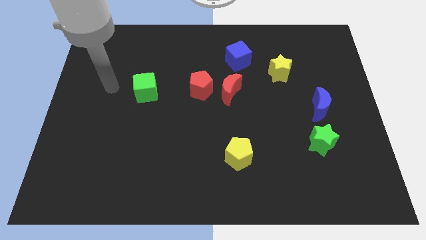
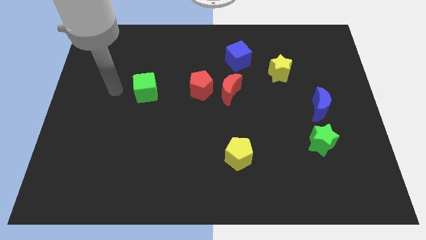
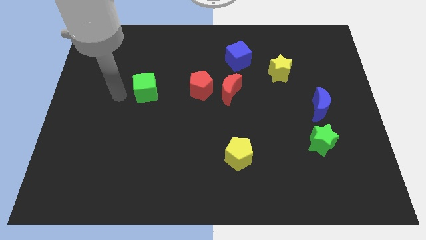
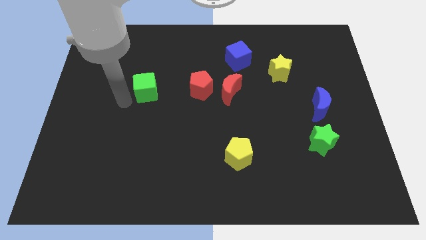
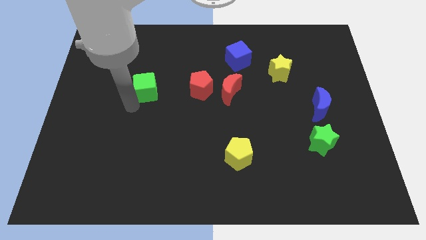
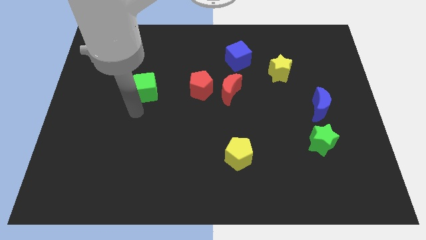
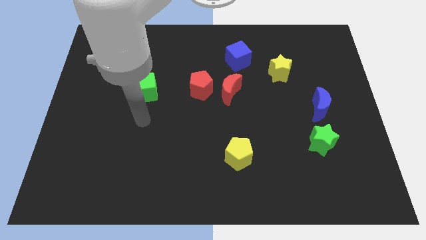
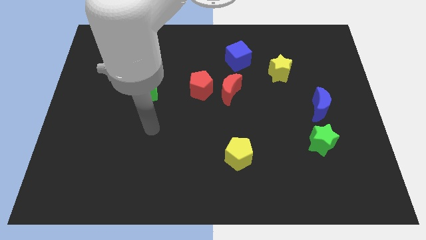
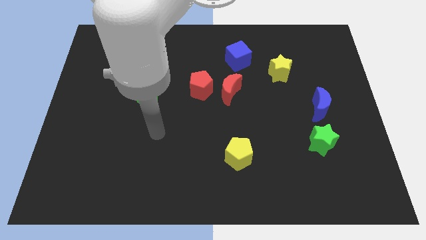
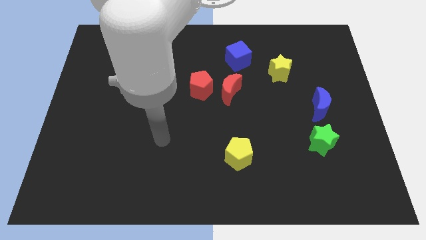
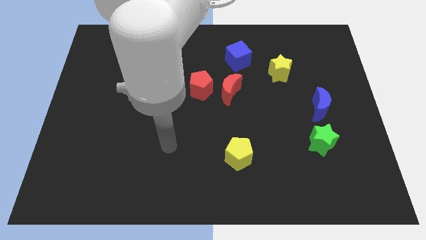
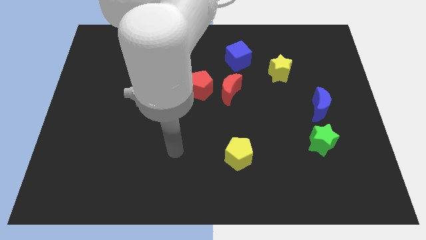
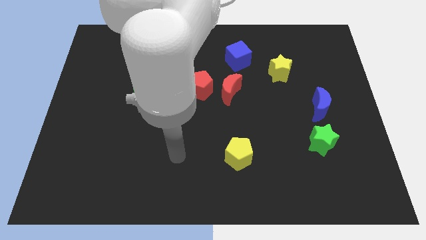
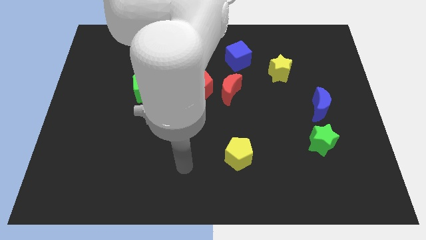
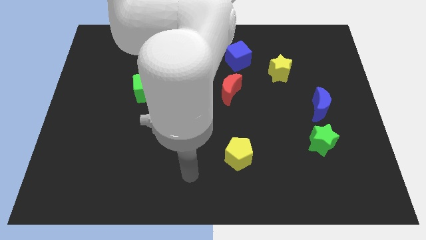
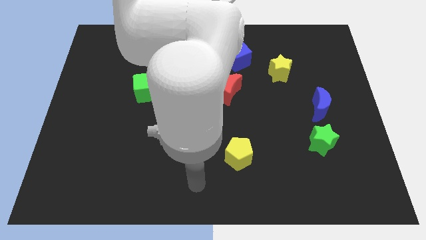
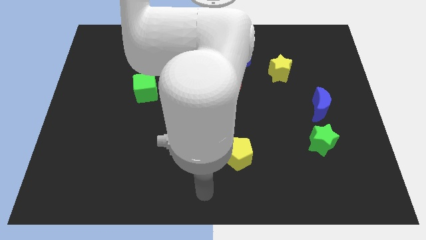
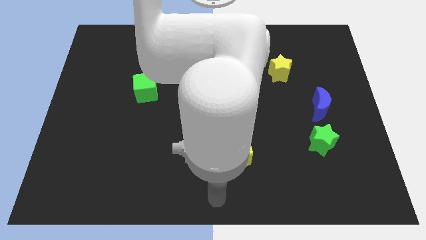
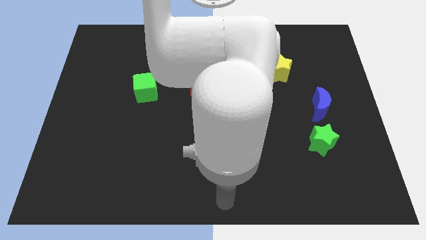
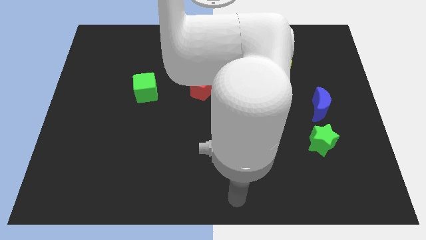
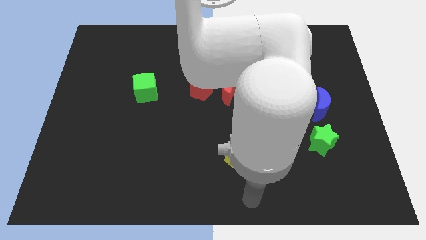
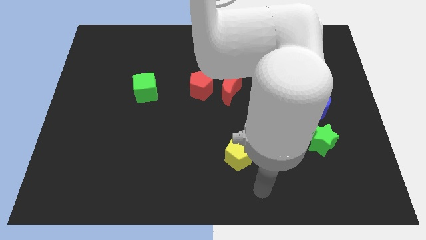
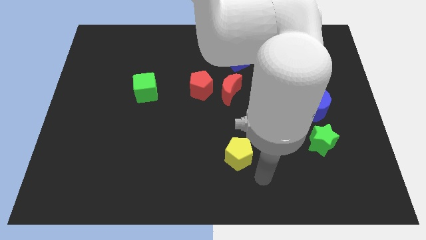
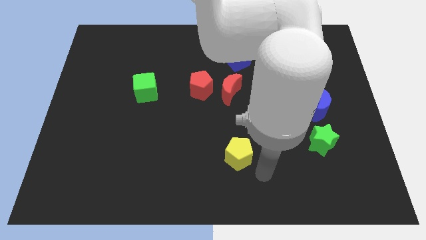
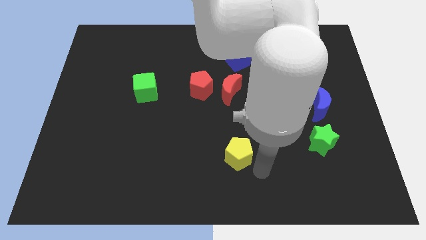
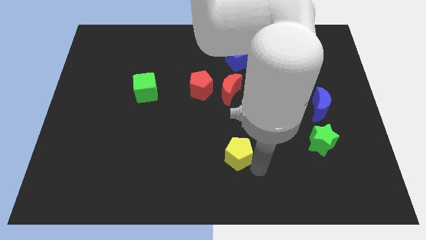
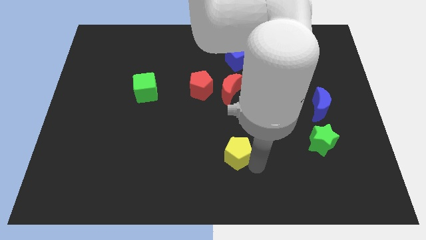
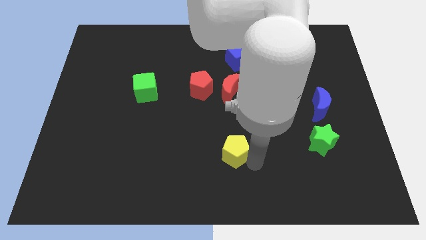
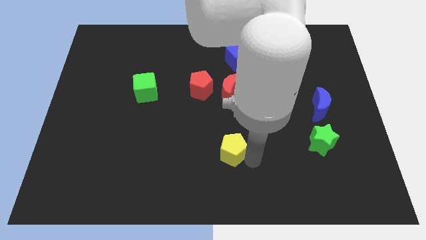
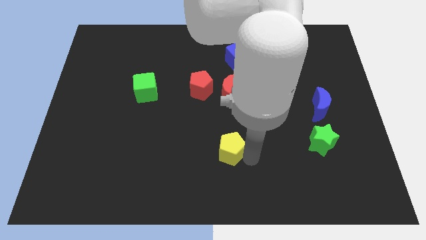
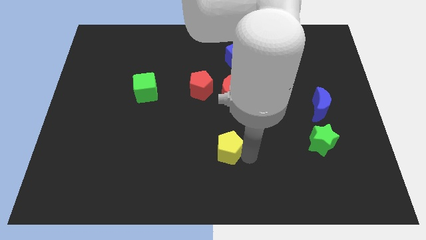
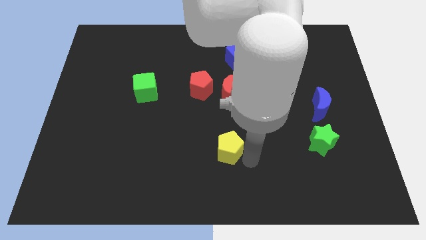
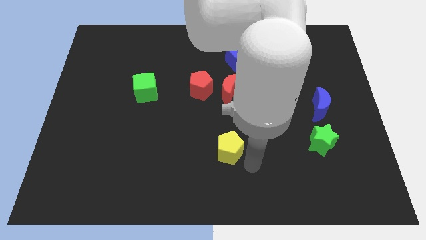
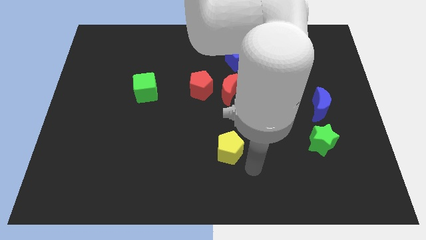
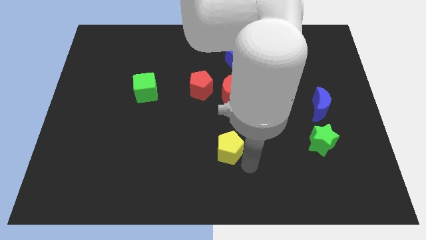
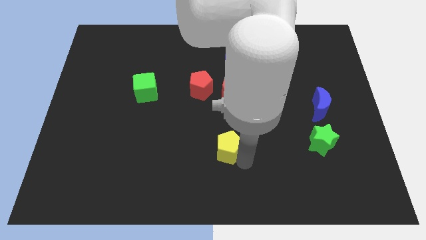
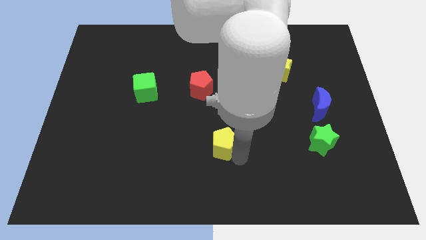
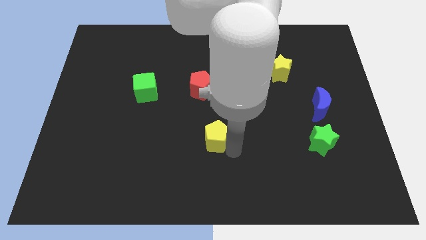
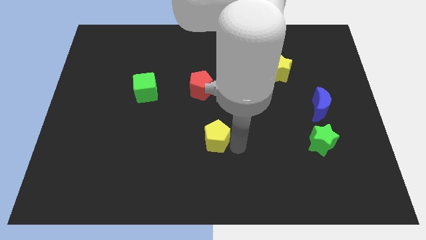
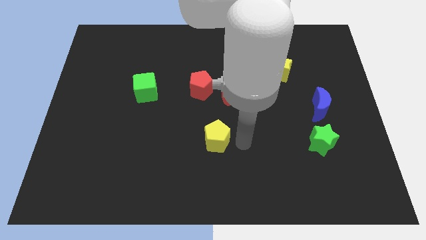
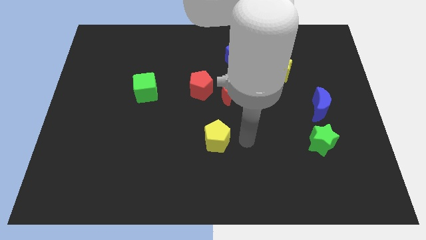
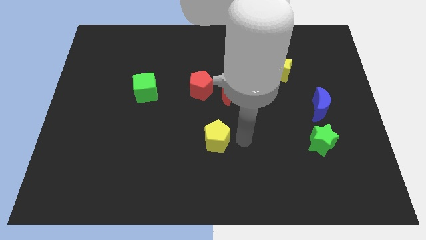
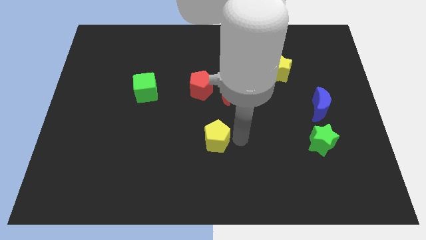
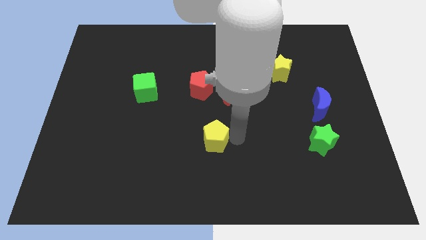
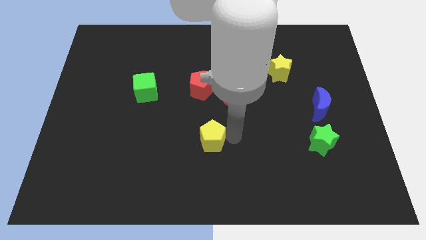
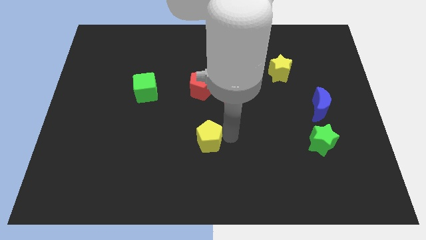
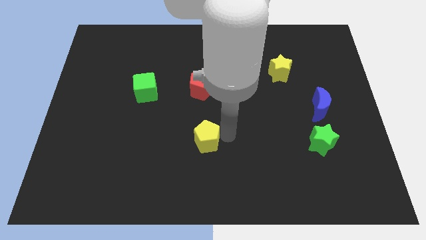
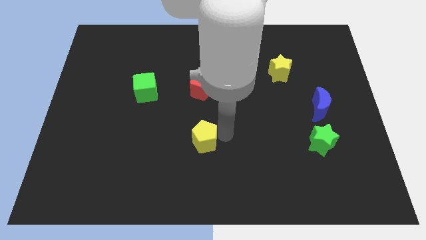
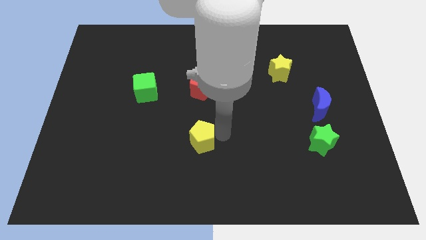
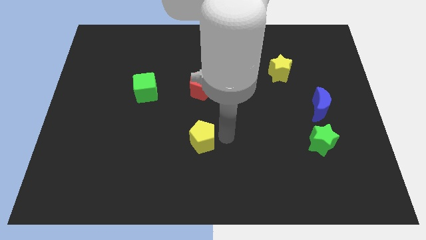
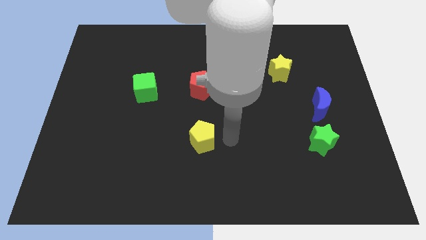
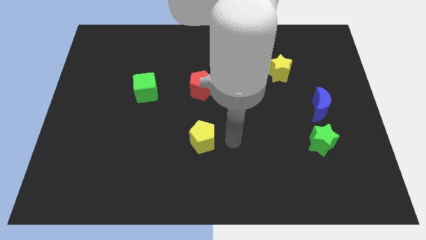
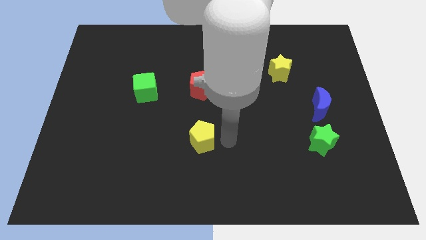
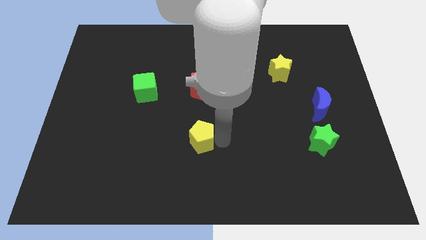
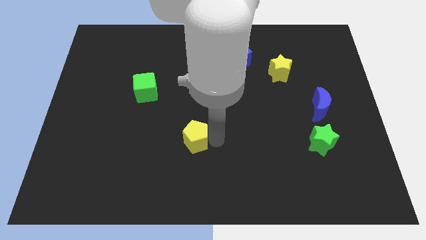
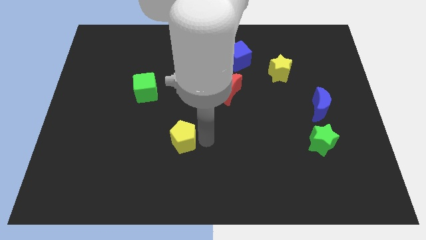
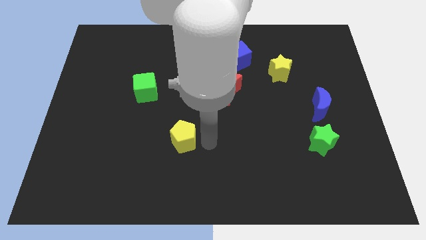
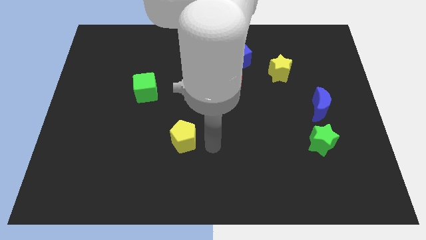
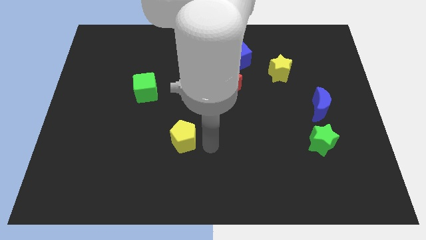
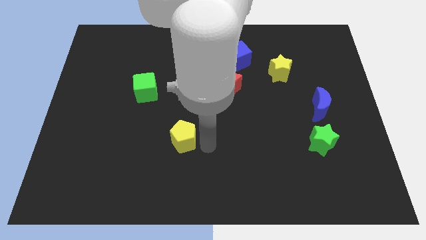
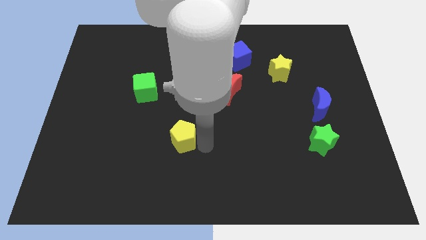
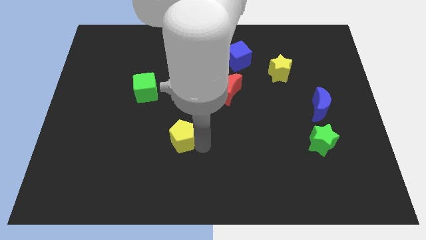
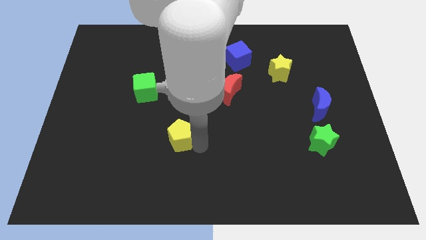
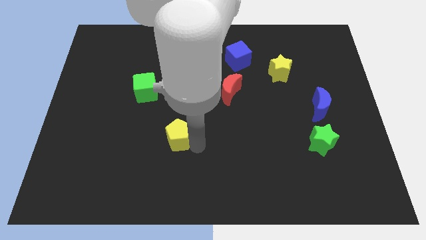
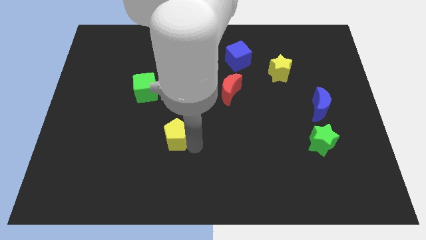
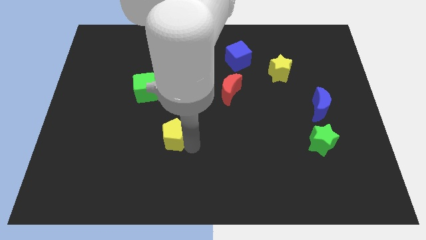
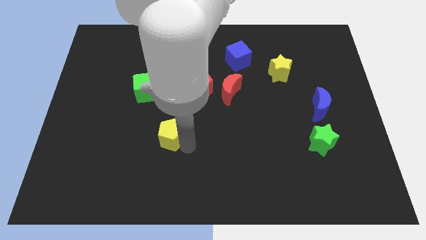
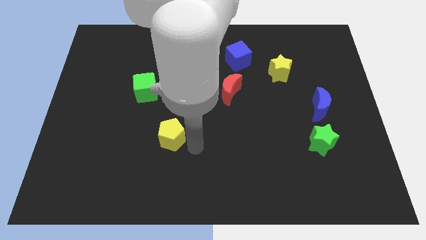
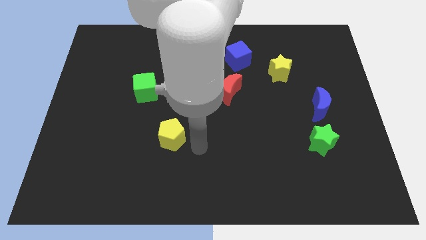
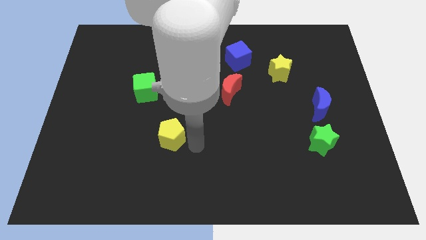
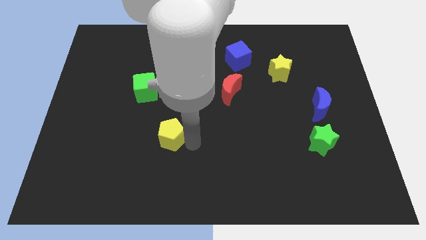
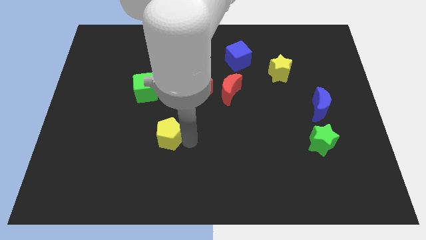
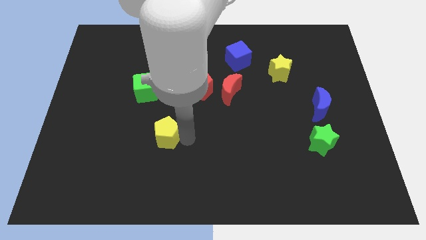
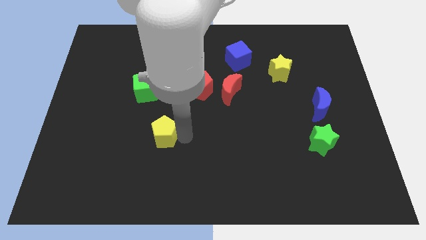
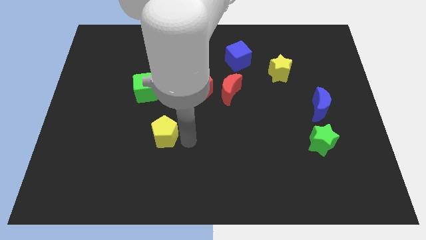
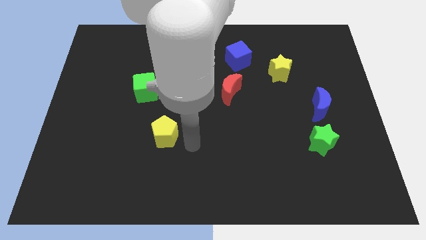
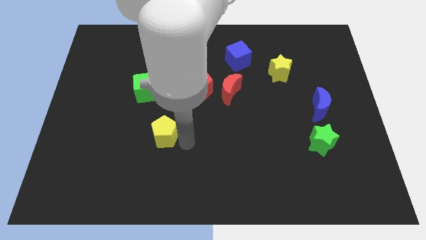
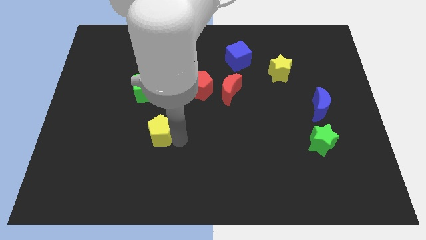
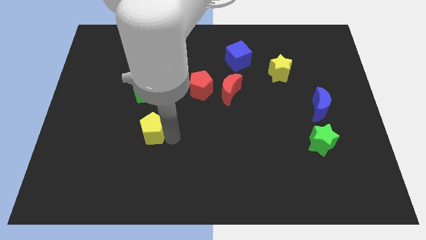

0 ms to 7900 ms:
slide the yellow pentagon to the bottom side of the green cube

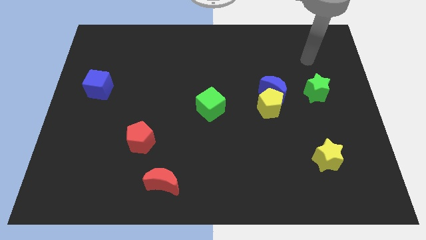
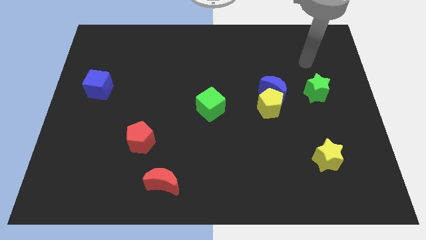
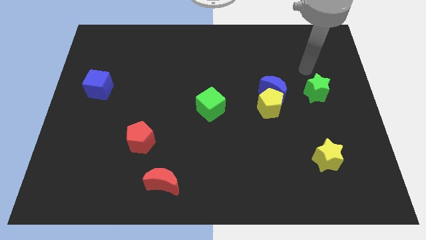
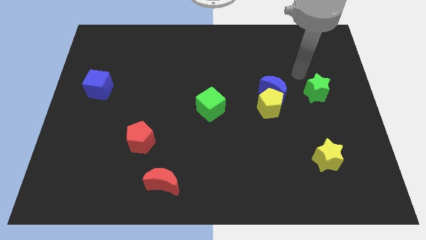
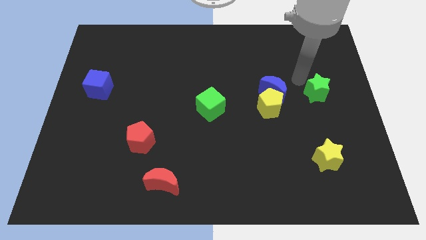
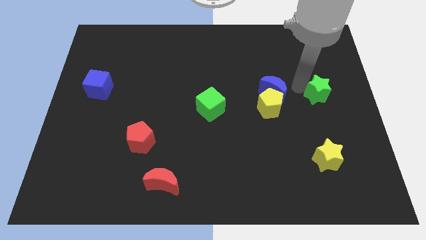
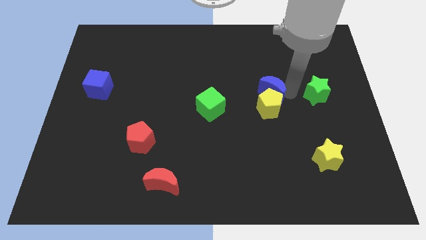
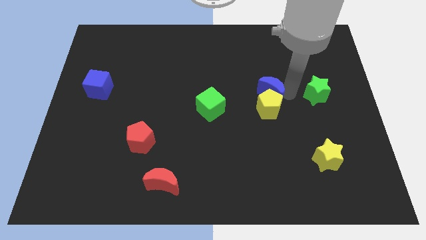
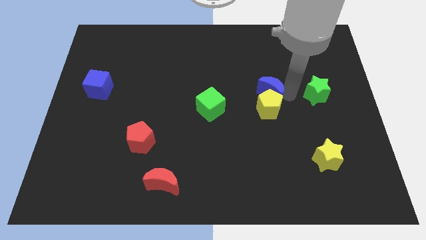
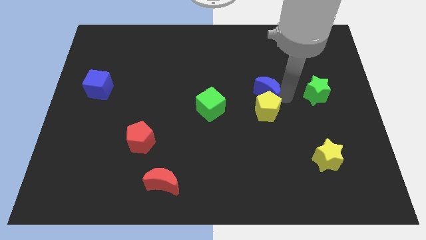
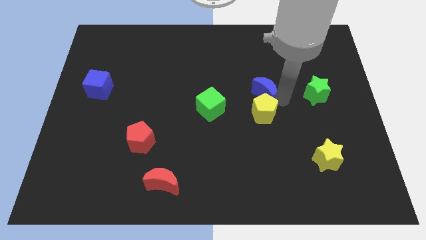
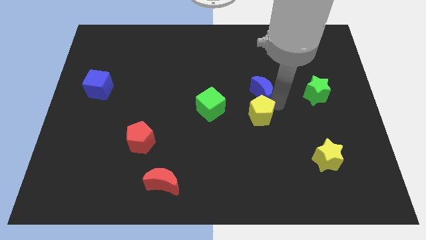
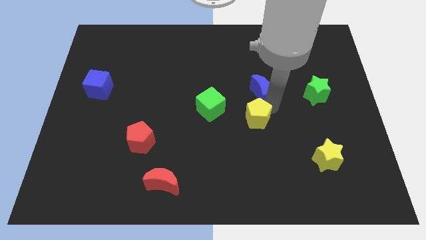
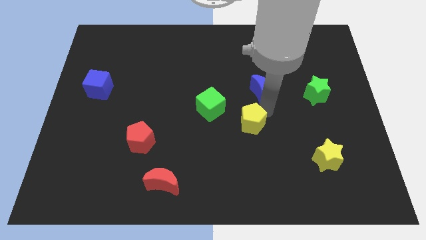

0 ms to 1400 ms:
move the yellow pentagon to the bottom right side of the green cube
